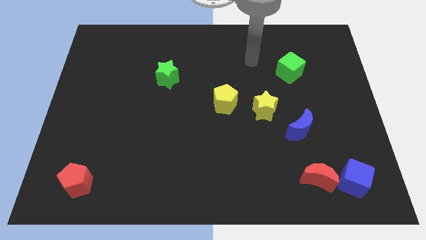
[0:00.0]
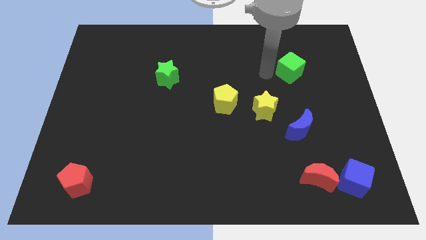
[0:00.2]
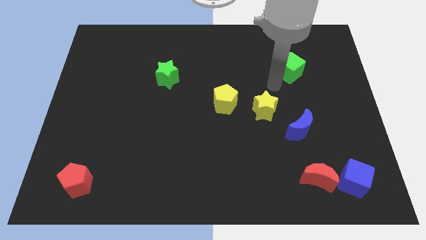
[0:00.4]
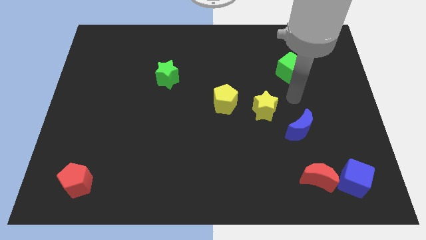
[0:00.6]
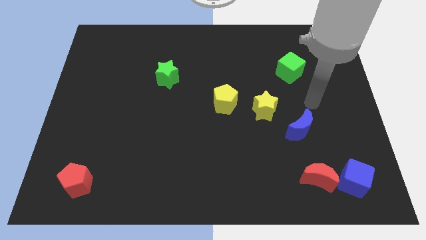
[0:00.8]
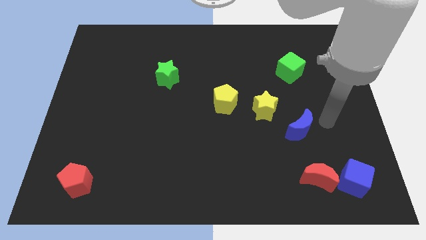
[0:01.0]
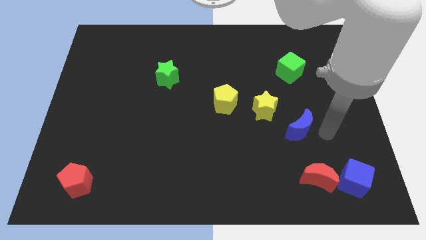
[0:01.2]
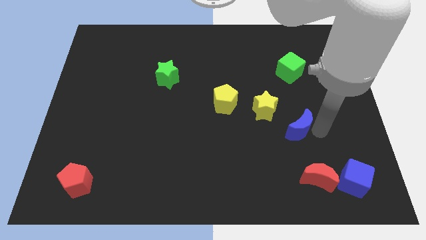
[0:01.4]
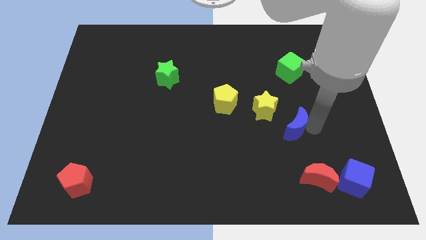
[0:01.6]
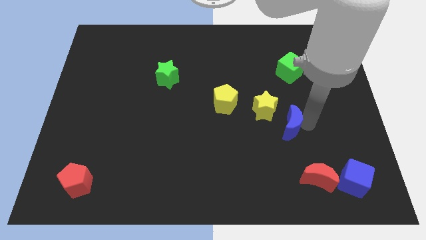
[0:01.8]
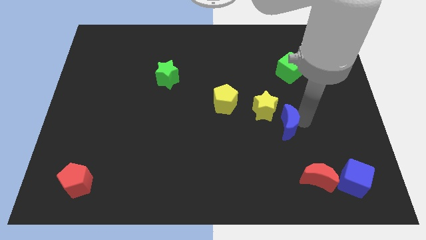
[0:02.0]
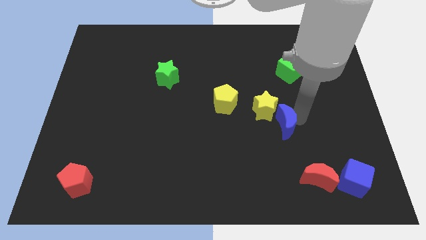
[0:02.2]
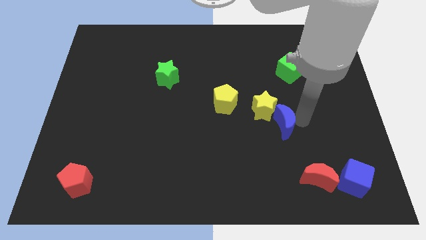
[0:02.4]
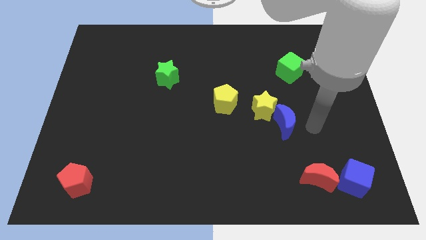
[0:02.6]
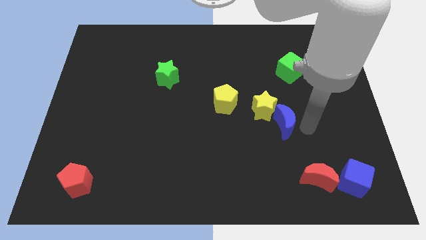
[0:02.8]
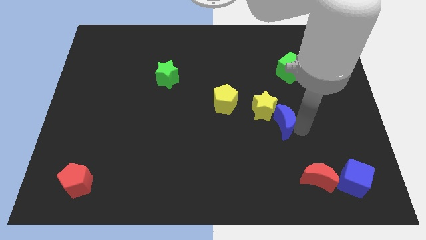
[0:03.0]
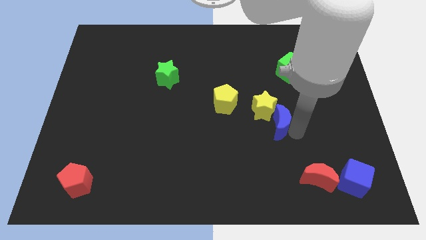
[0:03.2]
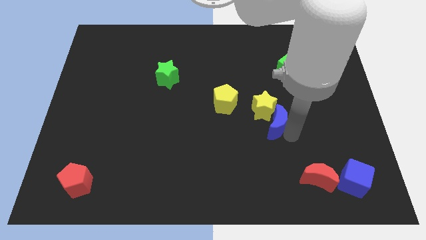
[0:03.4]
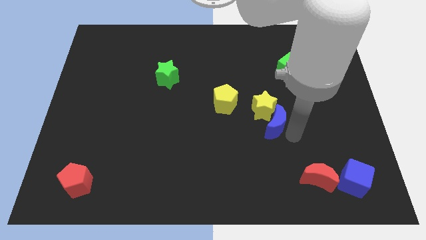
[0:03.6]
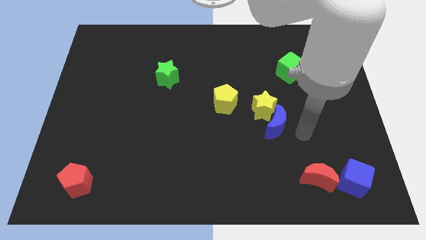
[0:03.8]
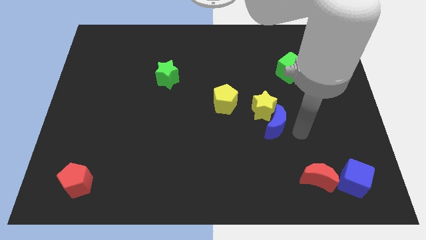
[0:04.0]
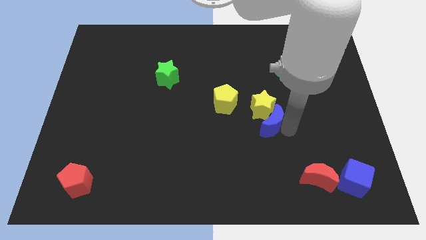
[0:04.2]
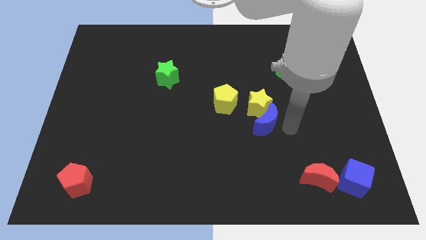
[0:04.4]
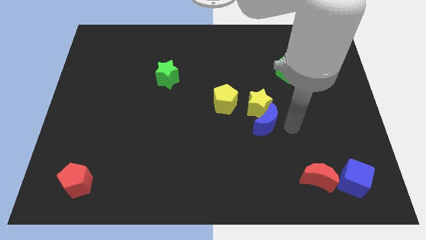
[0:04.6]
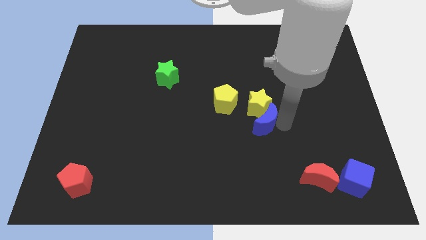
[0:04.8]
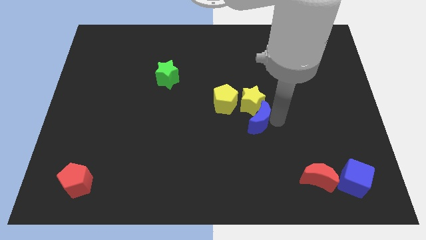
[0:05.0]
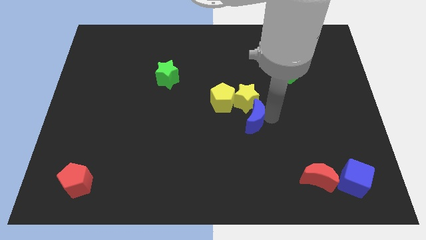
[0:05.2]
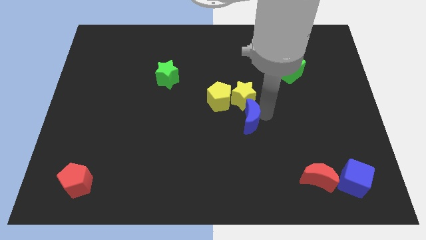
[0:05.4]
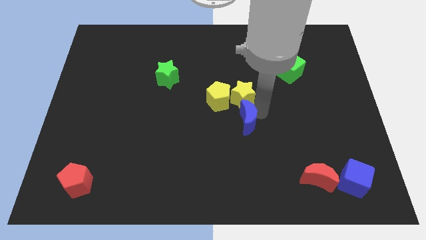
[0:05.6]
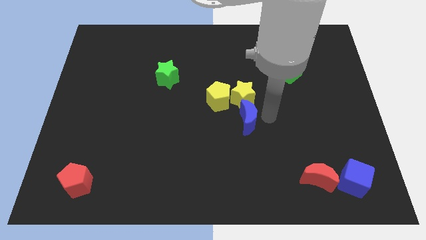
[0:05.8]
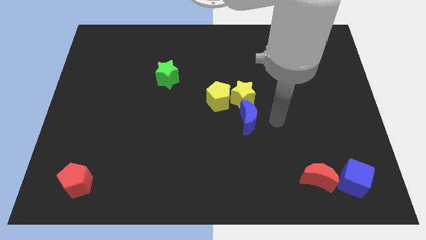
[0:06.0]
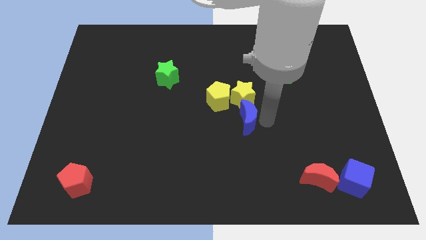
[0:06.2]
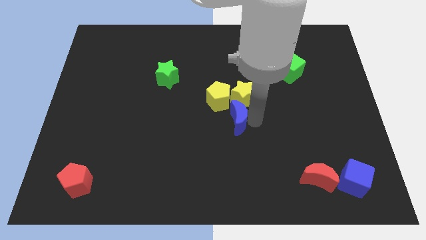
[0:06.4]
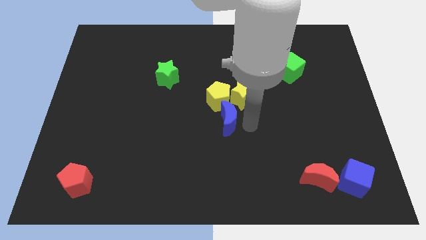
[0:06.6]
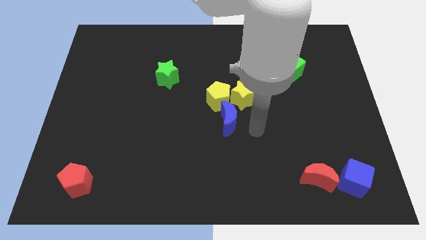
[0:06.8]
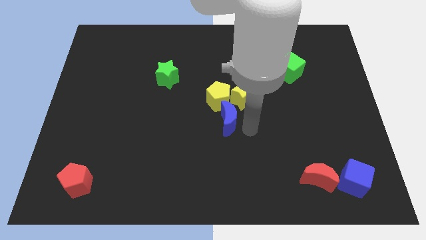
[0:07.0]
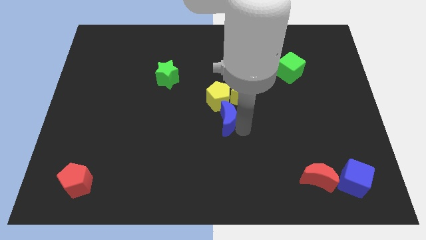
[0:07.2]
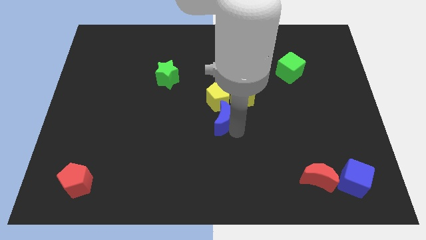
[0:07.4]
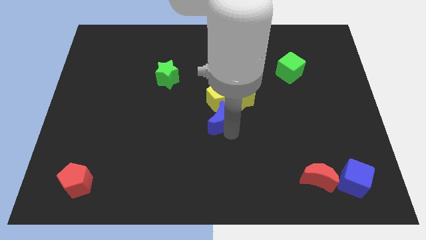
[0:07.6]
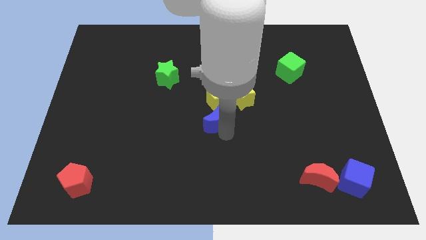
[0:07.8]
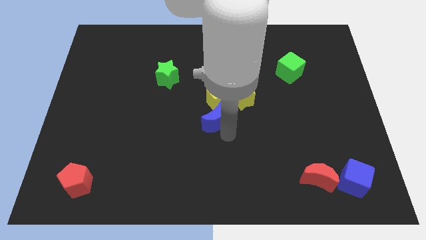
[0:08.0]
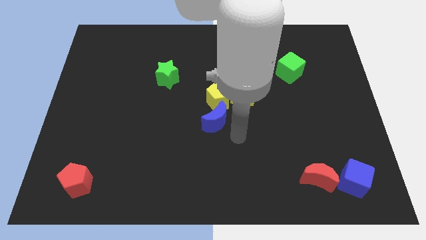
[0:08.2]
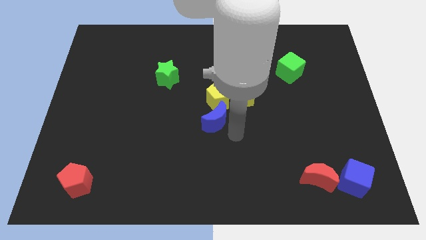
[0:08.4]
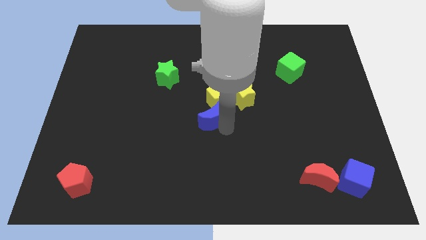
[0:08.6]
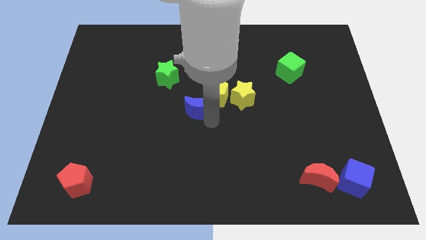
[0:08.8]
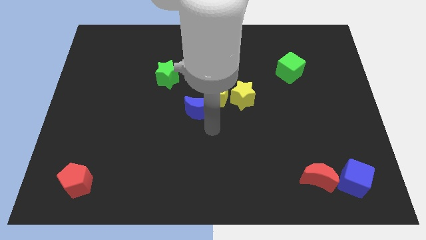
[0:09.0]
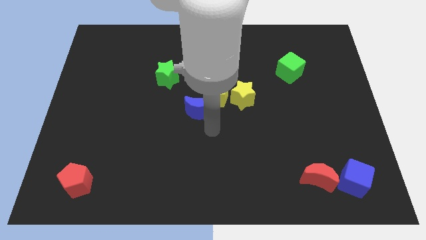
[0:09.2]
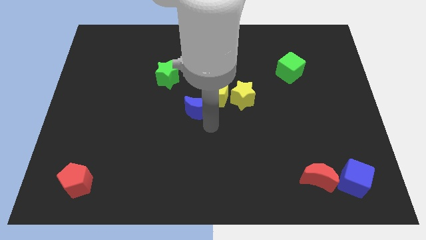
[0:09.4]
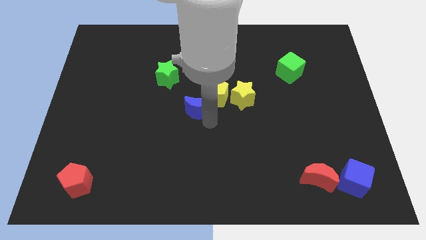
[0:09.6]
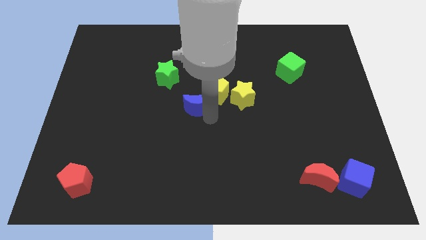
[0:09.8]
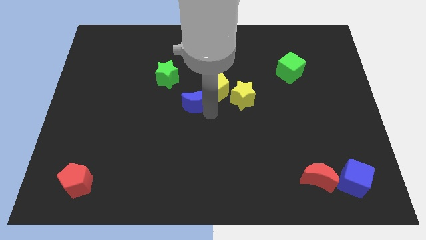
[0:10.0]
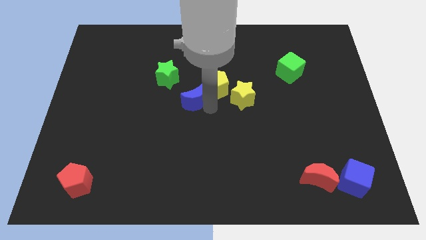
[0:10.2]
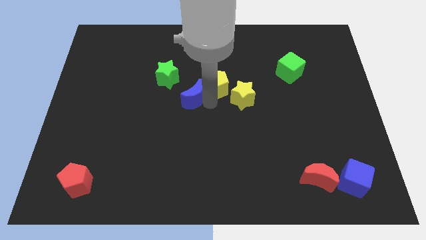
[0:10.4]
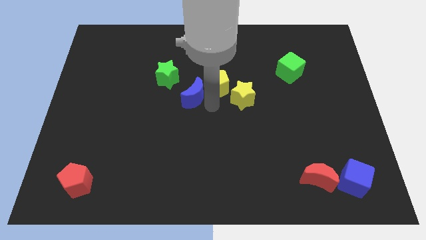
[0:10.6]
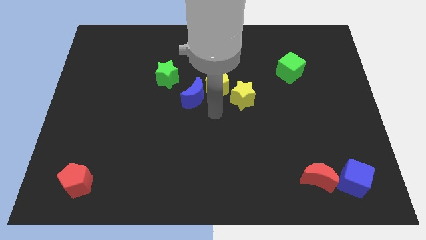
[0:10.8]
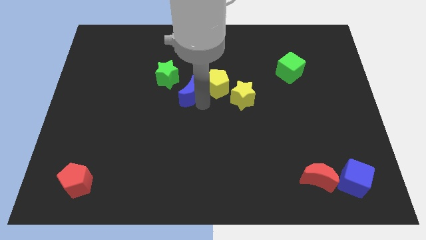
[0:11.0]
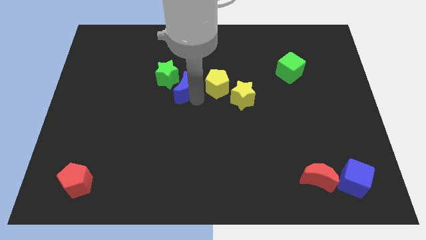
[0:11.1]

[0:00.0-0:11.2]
slide the blue moon towards the green star

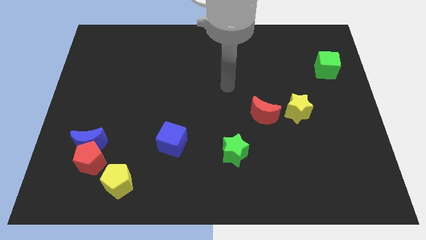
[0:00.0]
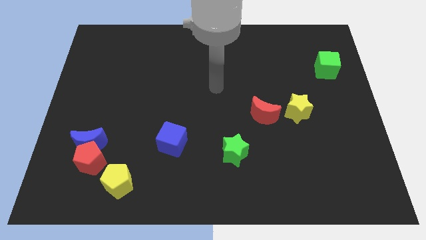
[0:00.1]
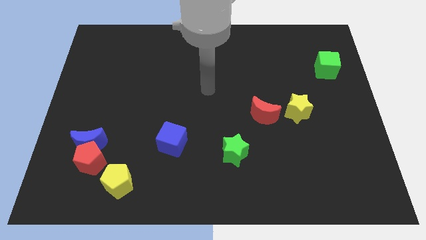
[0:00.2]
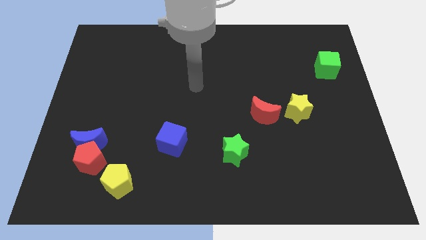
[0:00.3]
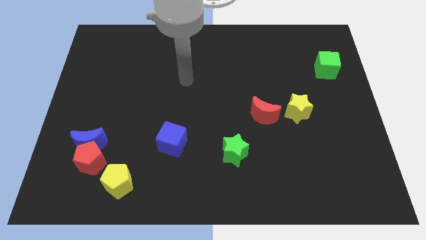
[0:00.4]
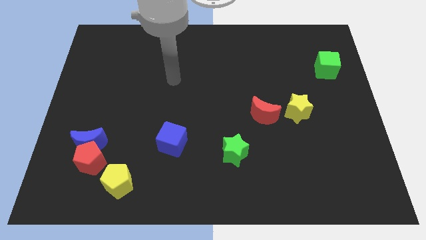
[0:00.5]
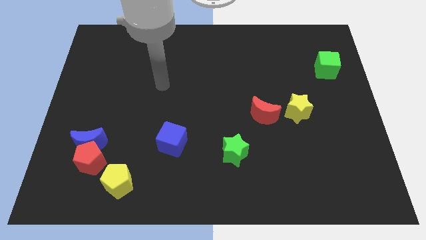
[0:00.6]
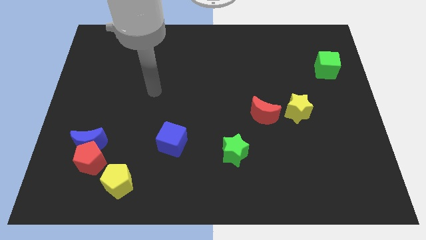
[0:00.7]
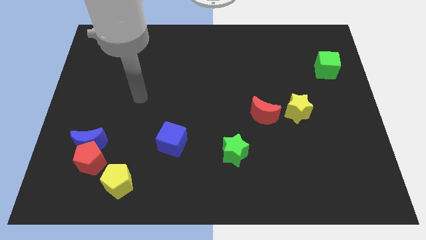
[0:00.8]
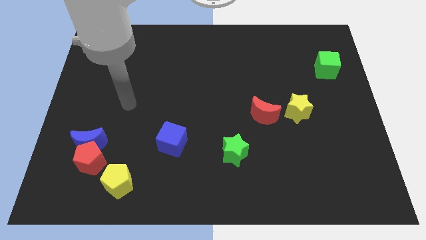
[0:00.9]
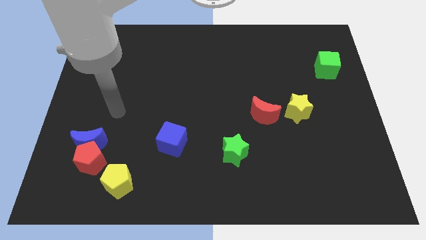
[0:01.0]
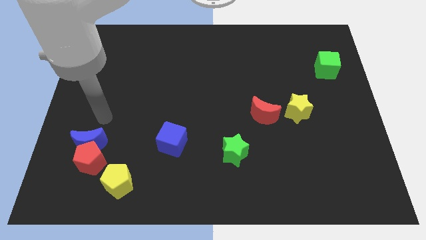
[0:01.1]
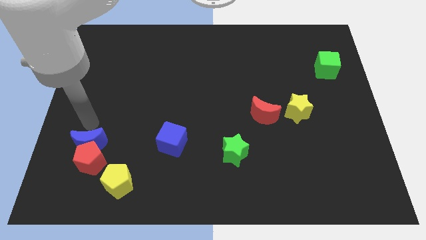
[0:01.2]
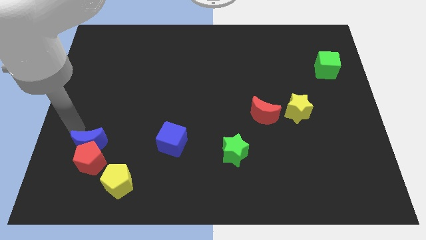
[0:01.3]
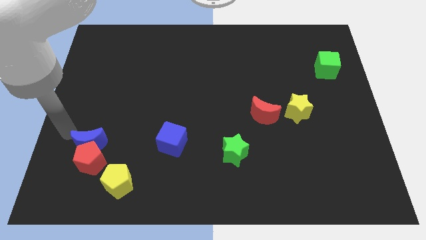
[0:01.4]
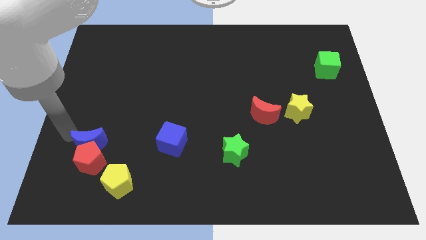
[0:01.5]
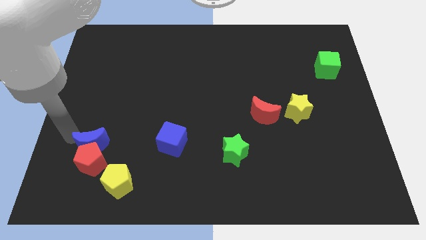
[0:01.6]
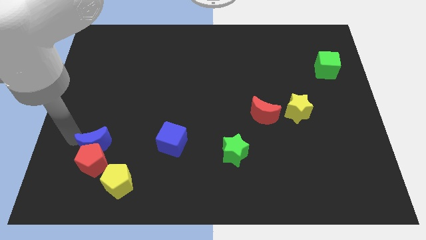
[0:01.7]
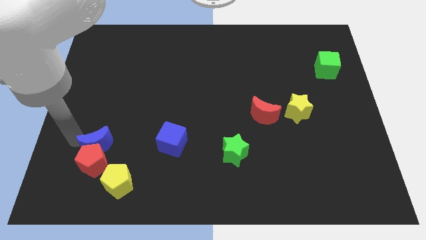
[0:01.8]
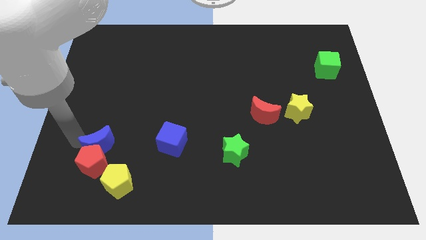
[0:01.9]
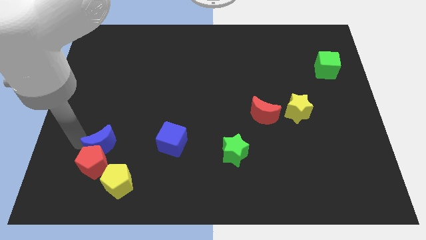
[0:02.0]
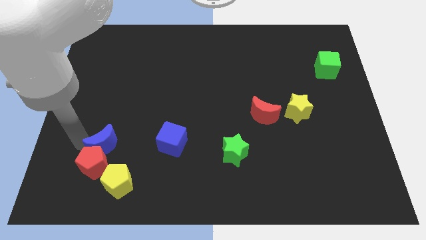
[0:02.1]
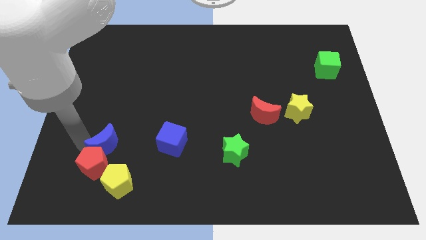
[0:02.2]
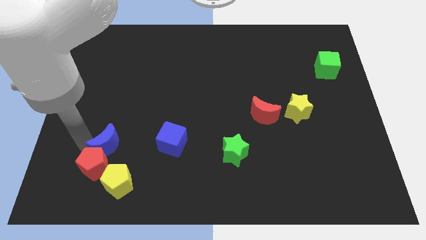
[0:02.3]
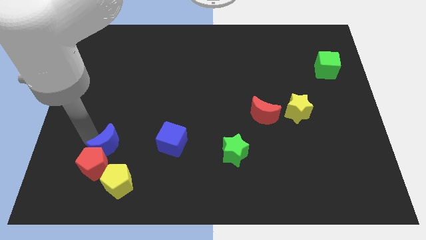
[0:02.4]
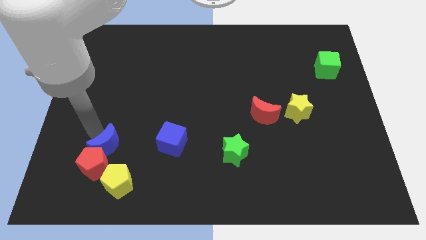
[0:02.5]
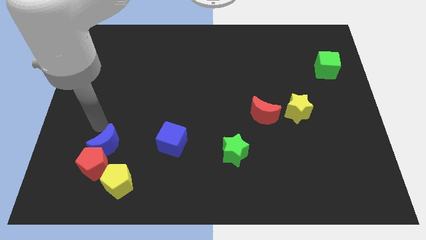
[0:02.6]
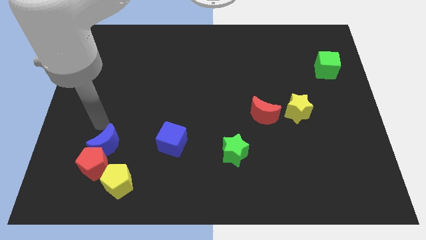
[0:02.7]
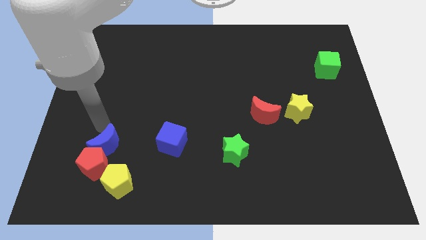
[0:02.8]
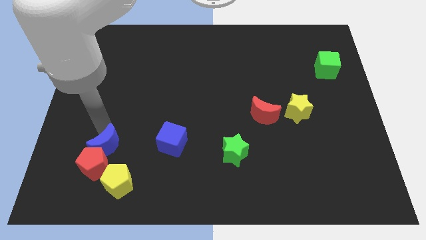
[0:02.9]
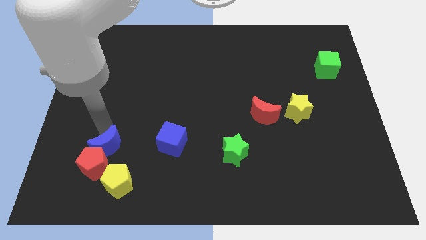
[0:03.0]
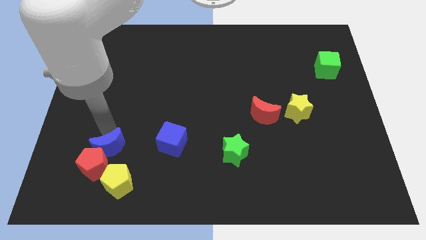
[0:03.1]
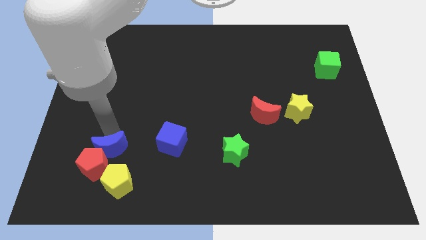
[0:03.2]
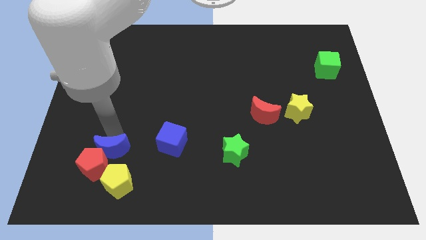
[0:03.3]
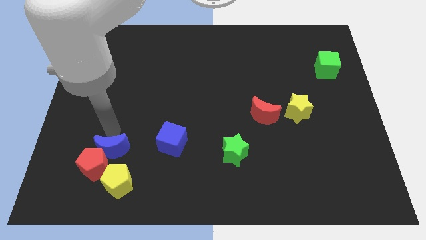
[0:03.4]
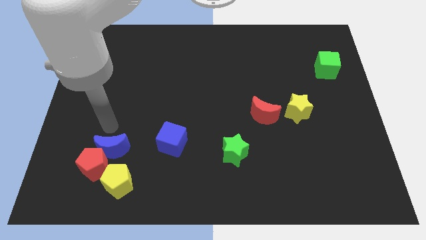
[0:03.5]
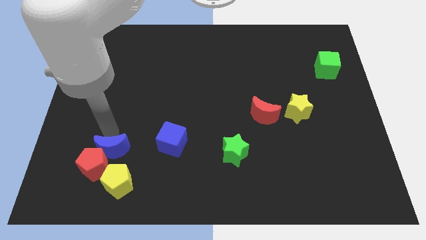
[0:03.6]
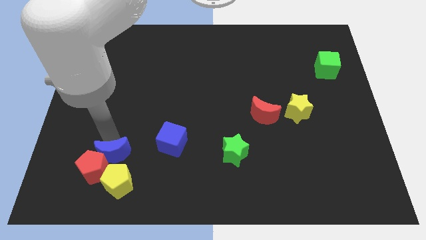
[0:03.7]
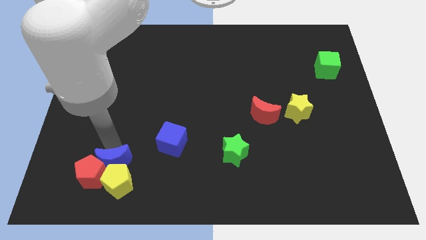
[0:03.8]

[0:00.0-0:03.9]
move the blue moon next to the yellow pentagon
